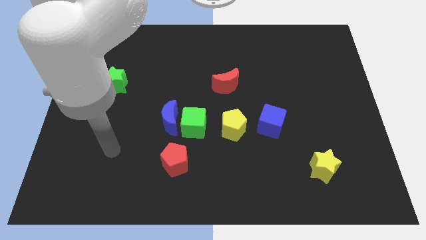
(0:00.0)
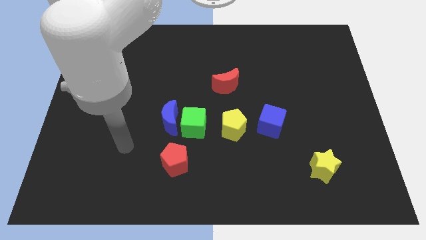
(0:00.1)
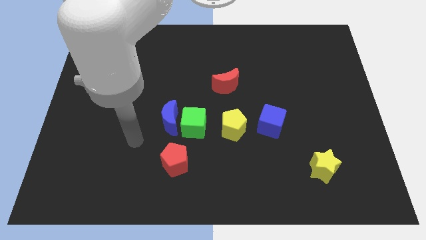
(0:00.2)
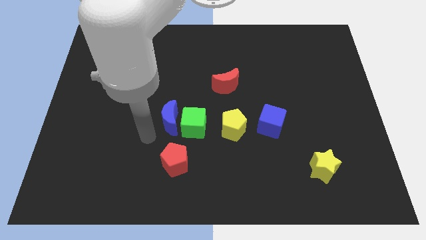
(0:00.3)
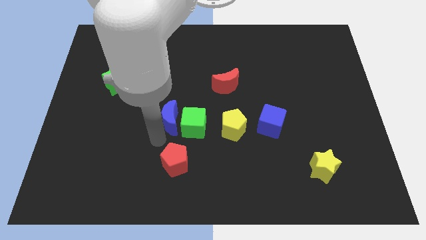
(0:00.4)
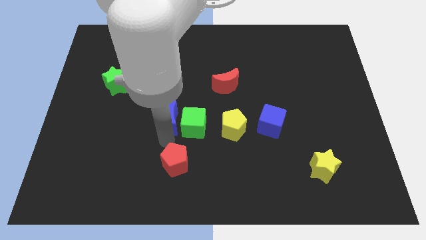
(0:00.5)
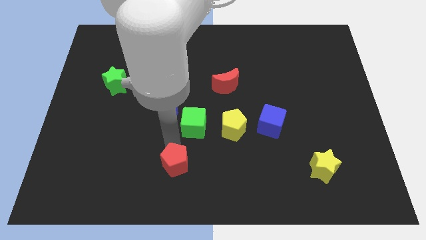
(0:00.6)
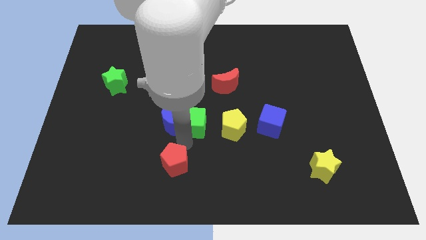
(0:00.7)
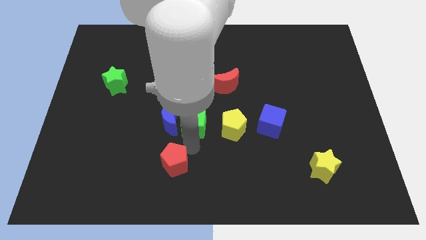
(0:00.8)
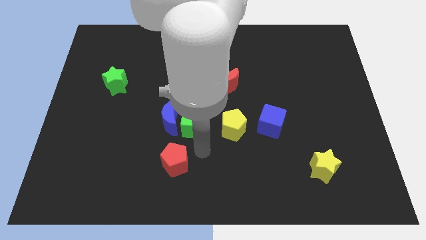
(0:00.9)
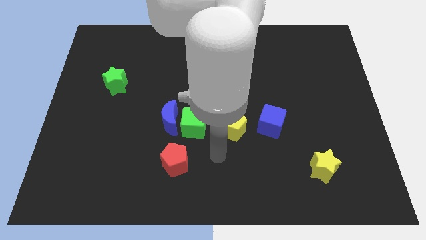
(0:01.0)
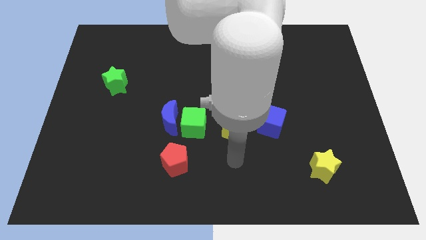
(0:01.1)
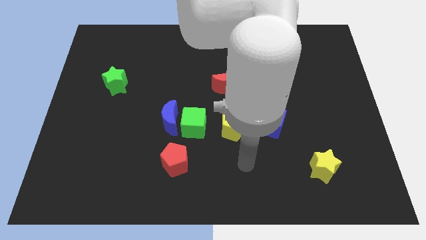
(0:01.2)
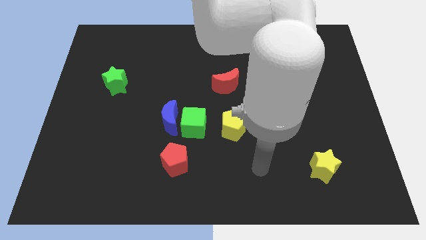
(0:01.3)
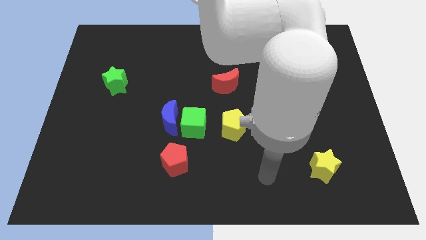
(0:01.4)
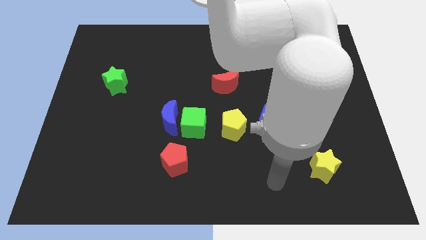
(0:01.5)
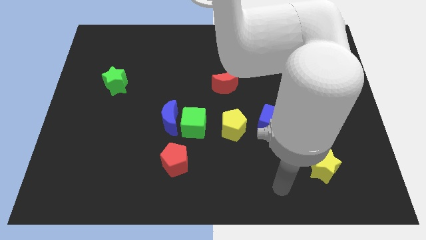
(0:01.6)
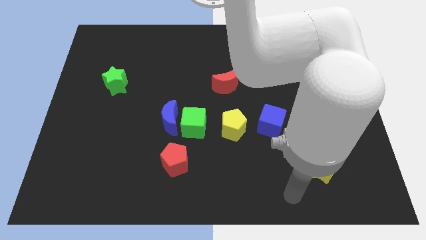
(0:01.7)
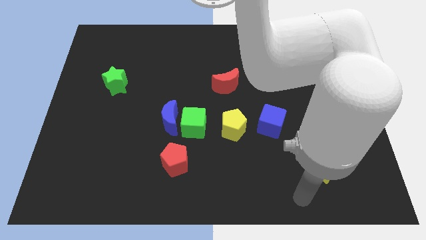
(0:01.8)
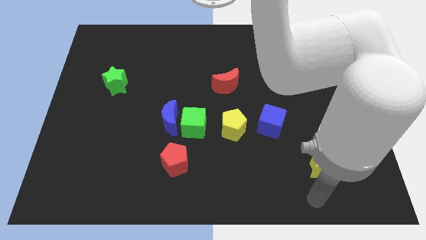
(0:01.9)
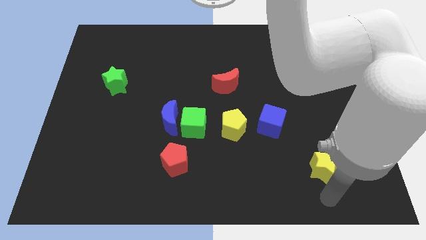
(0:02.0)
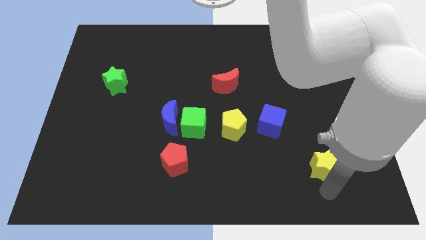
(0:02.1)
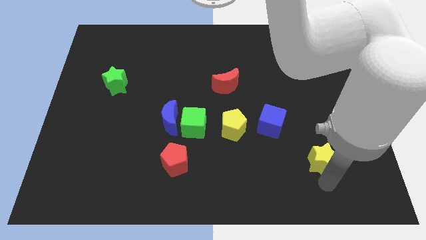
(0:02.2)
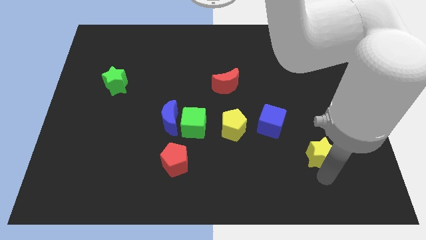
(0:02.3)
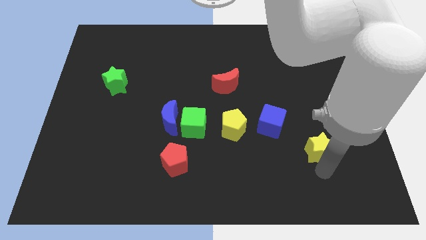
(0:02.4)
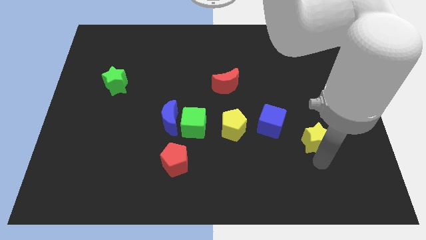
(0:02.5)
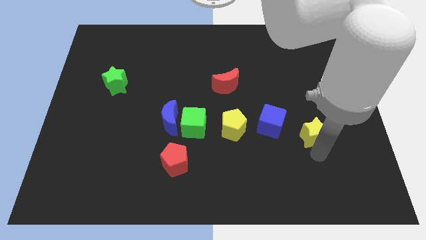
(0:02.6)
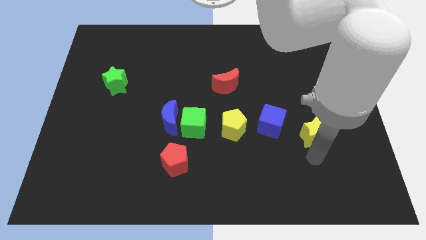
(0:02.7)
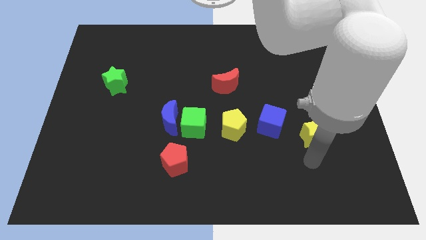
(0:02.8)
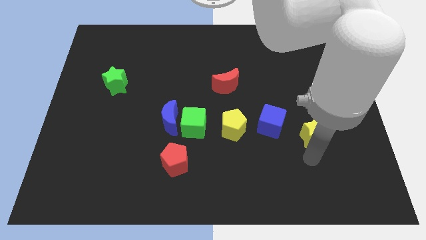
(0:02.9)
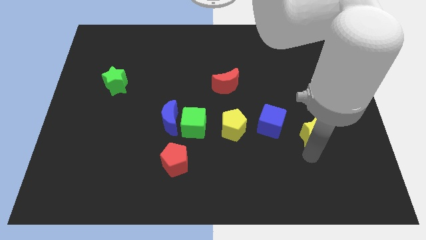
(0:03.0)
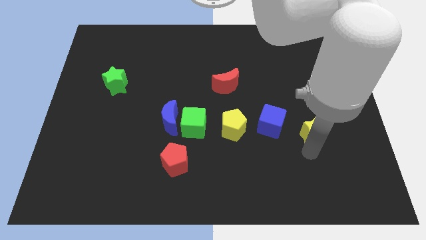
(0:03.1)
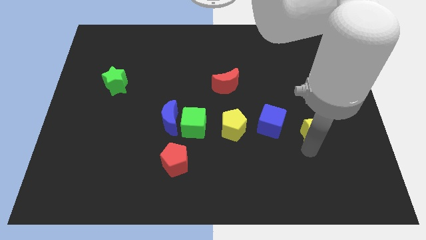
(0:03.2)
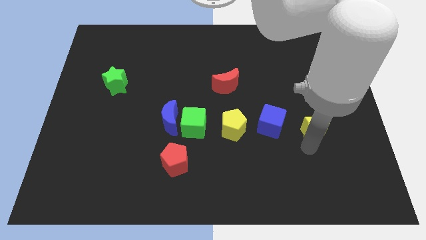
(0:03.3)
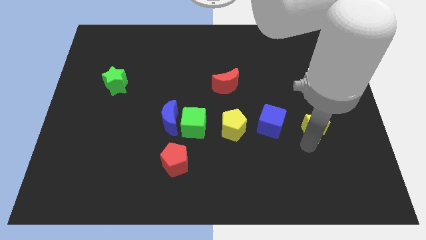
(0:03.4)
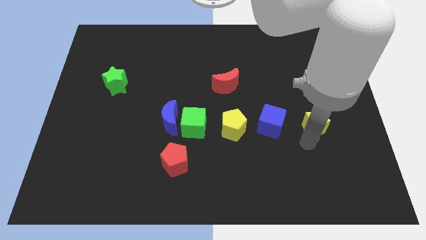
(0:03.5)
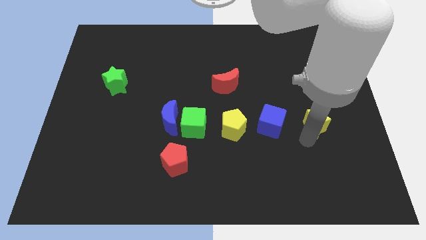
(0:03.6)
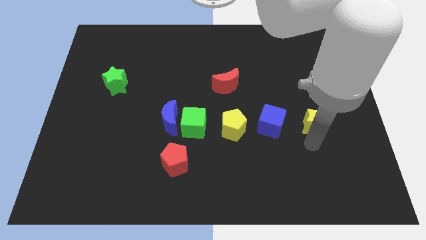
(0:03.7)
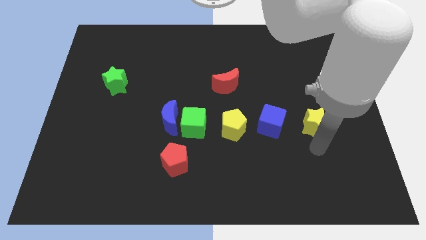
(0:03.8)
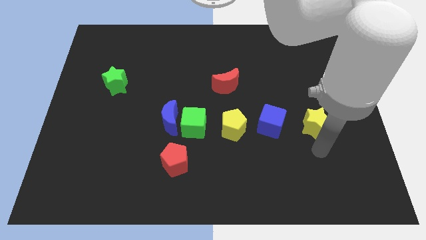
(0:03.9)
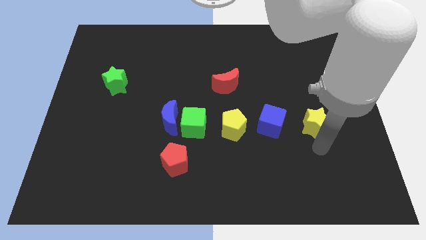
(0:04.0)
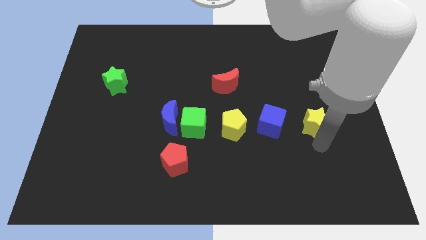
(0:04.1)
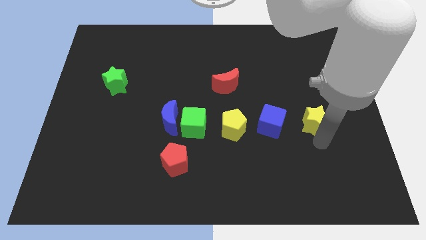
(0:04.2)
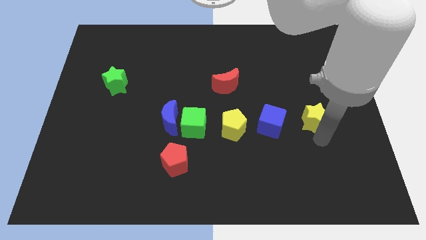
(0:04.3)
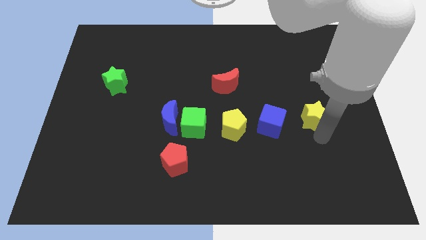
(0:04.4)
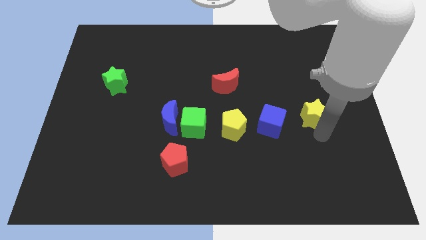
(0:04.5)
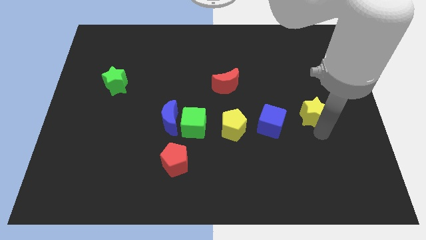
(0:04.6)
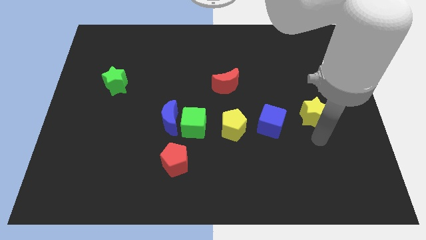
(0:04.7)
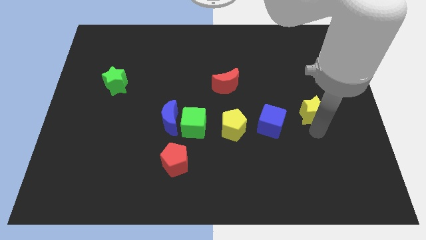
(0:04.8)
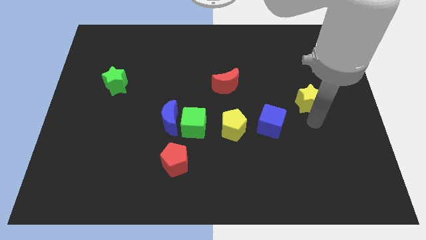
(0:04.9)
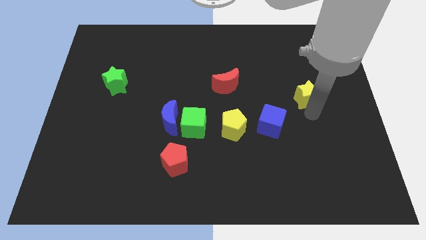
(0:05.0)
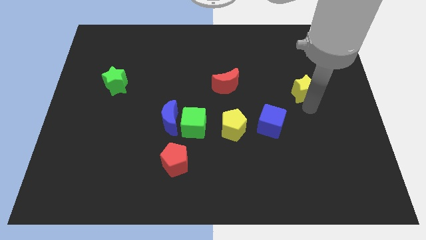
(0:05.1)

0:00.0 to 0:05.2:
move the yellow star upwards

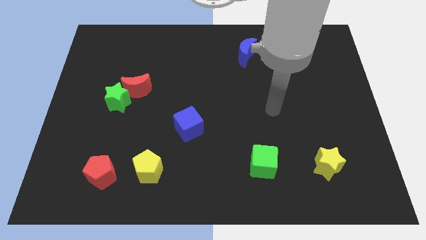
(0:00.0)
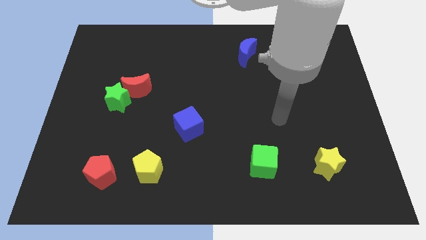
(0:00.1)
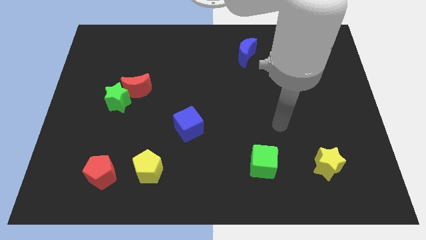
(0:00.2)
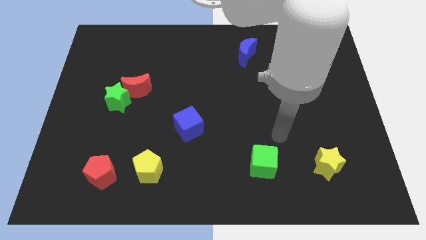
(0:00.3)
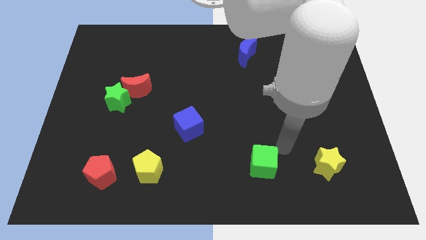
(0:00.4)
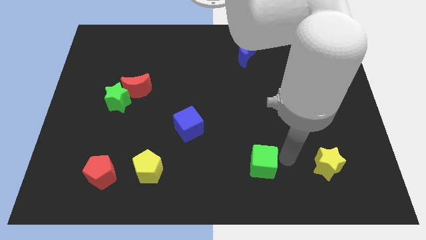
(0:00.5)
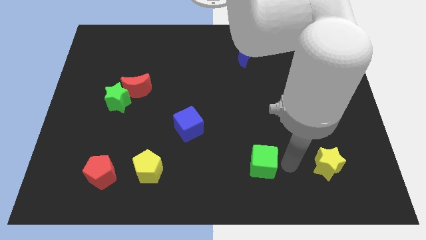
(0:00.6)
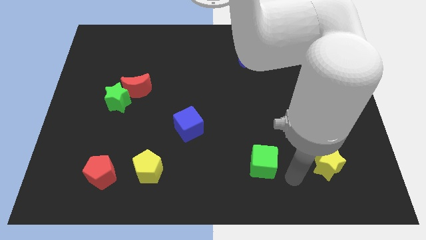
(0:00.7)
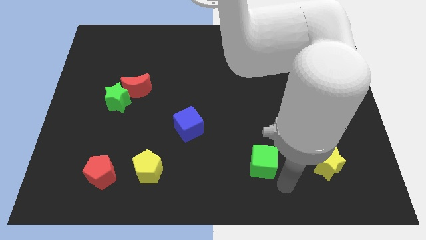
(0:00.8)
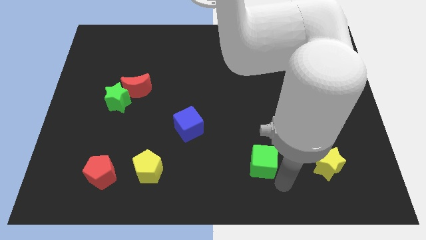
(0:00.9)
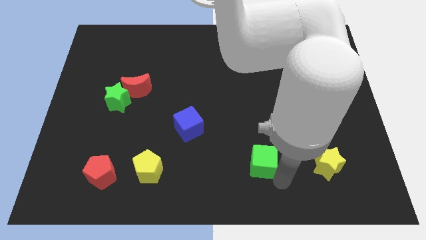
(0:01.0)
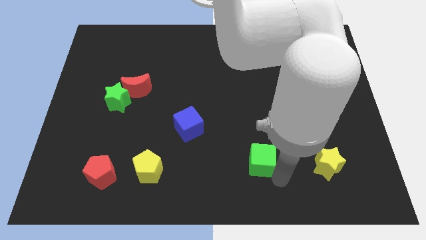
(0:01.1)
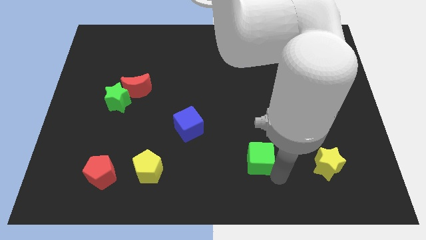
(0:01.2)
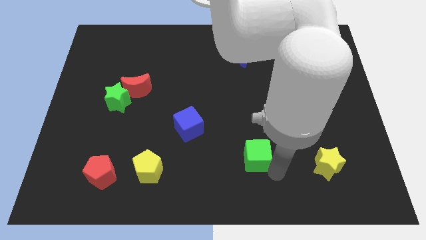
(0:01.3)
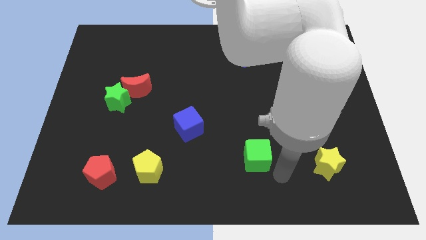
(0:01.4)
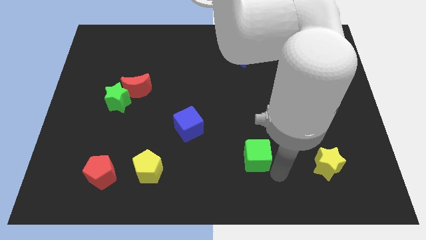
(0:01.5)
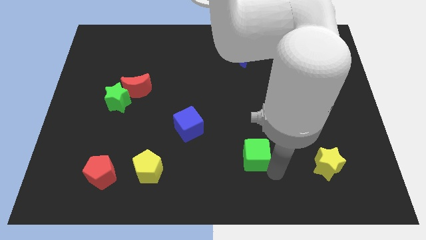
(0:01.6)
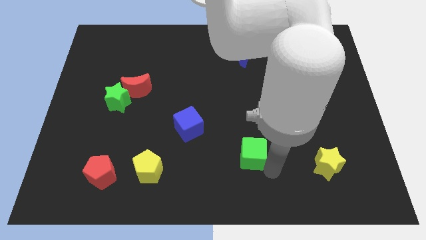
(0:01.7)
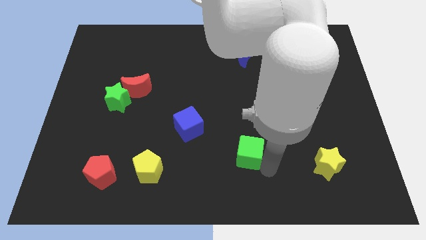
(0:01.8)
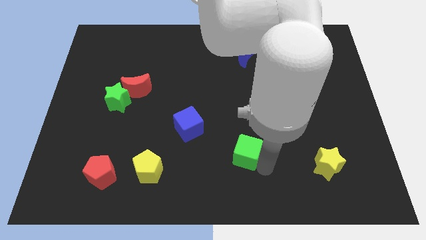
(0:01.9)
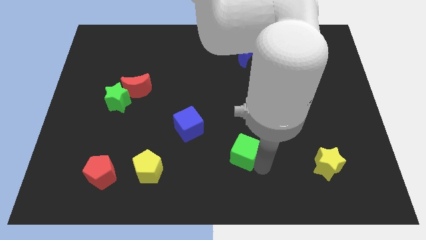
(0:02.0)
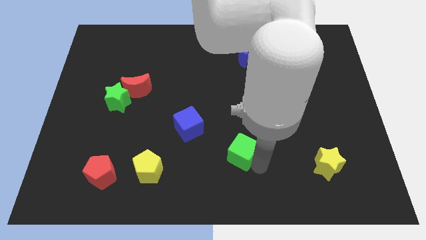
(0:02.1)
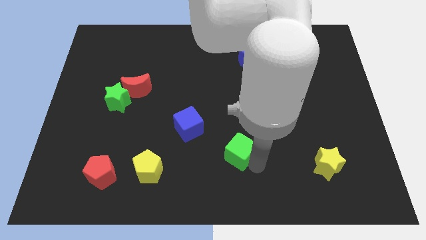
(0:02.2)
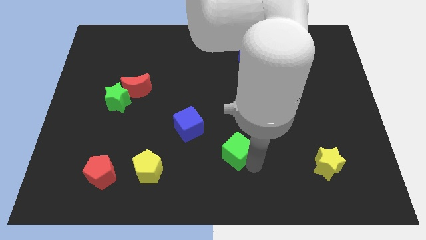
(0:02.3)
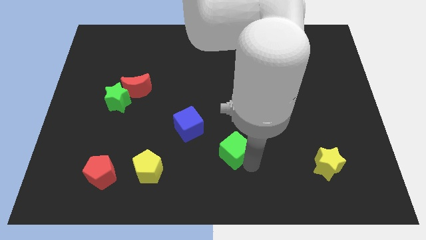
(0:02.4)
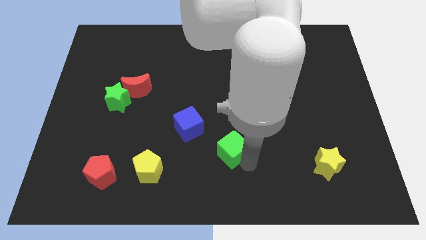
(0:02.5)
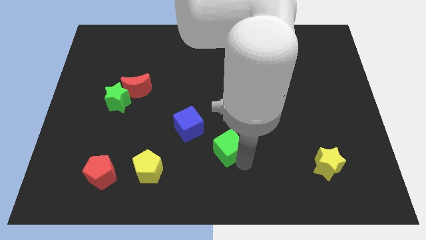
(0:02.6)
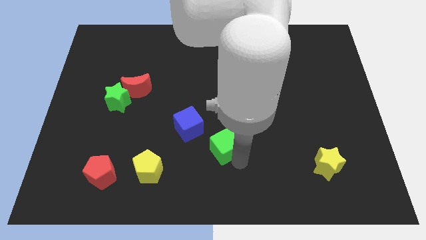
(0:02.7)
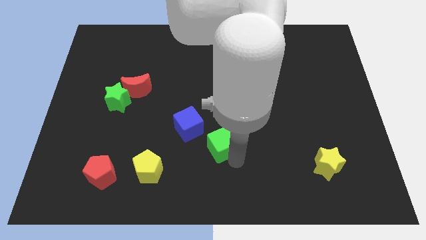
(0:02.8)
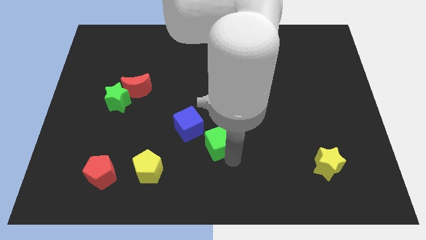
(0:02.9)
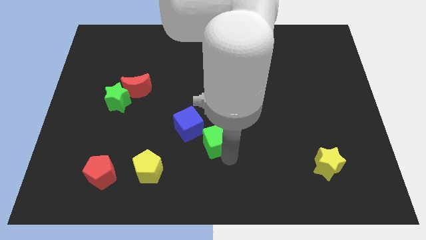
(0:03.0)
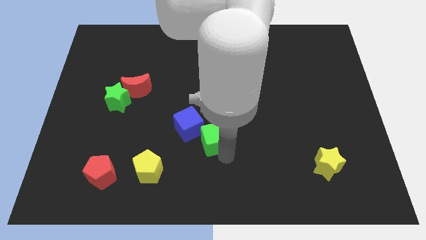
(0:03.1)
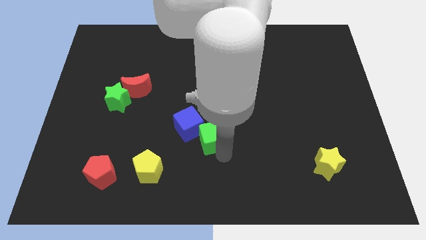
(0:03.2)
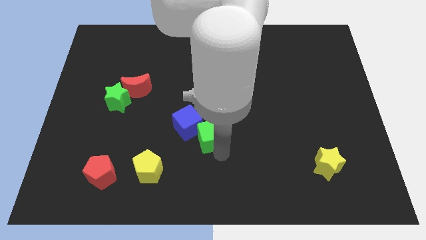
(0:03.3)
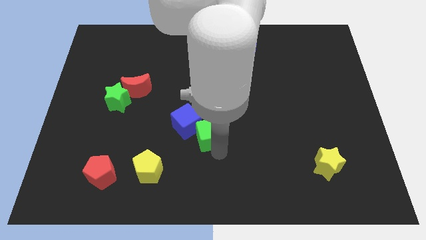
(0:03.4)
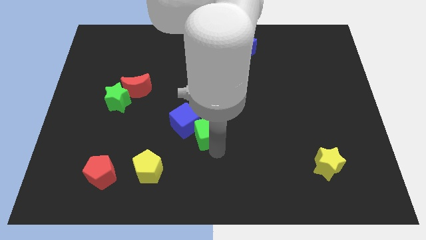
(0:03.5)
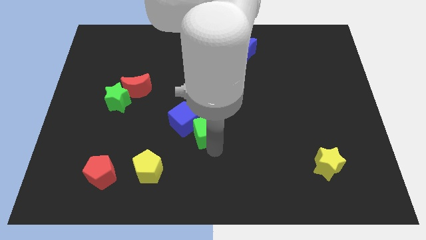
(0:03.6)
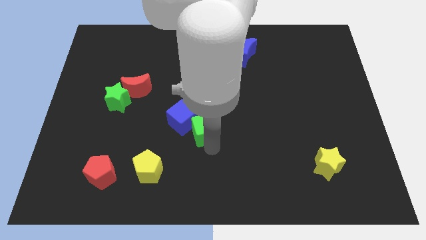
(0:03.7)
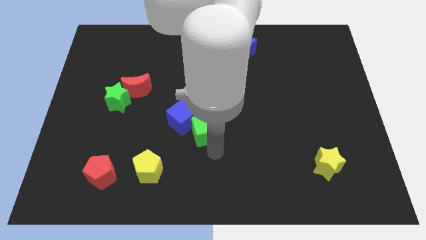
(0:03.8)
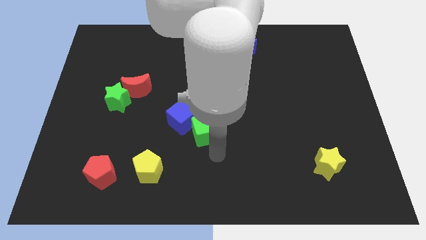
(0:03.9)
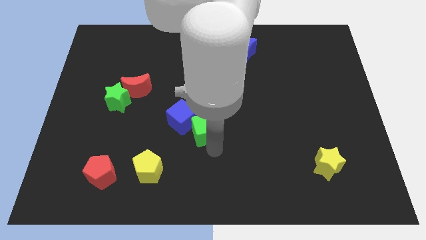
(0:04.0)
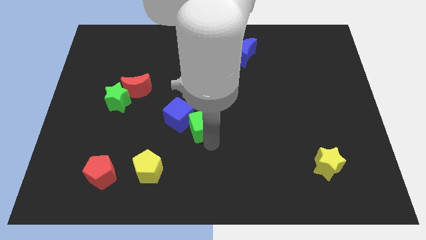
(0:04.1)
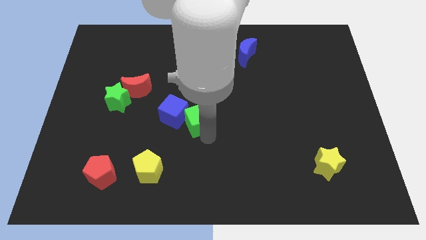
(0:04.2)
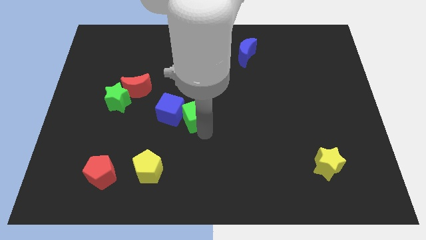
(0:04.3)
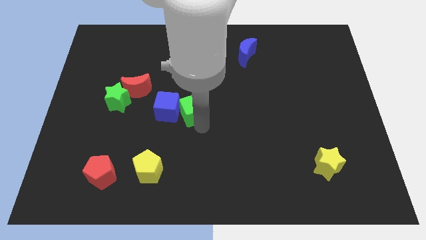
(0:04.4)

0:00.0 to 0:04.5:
slide the green cube upwards and then to the left
